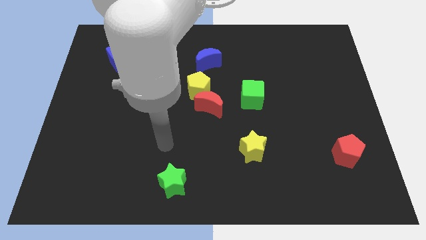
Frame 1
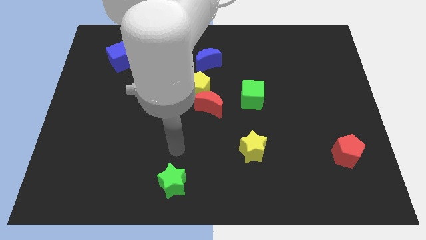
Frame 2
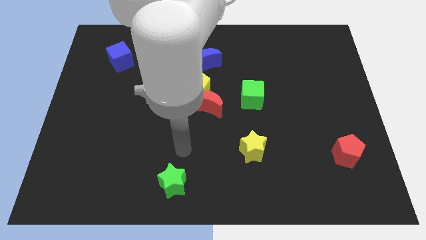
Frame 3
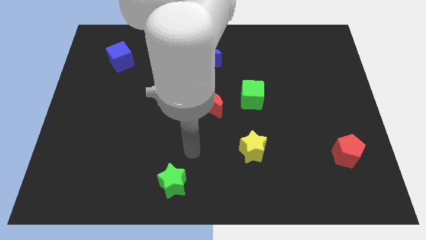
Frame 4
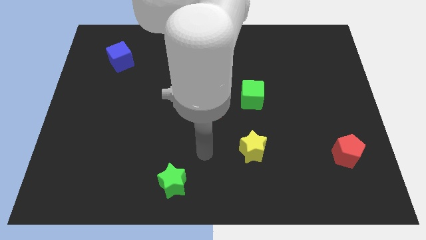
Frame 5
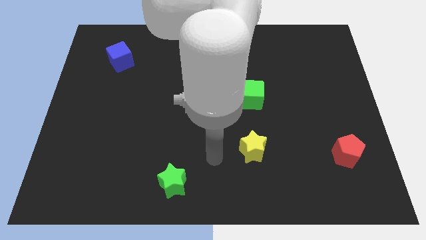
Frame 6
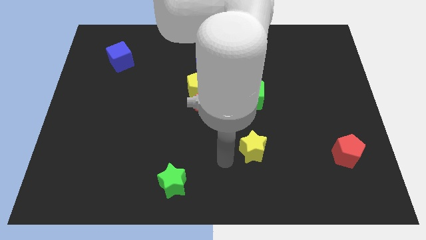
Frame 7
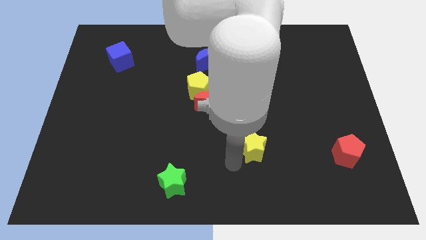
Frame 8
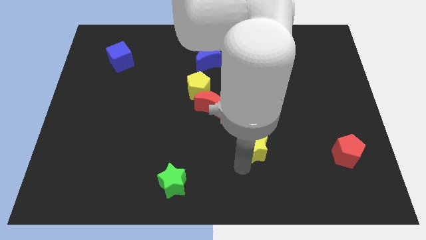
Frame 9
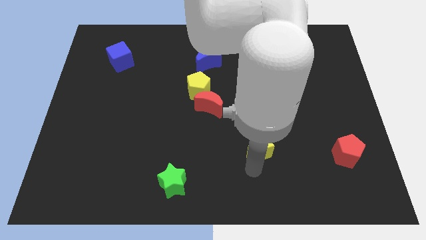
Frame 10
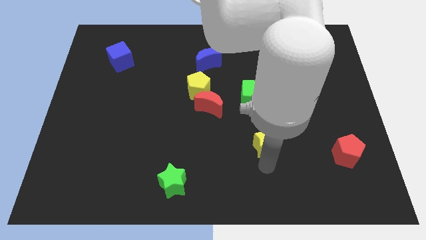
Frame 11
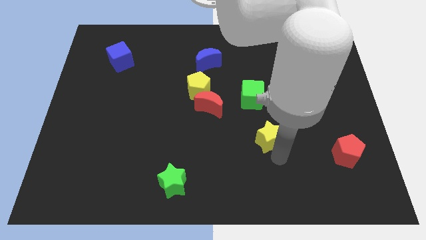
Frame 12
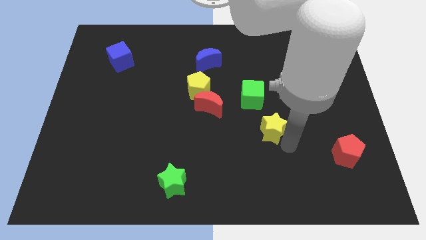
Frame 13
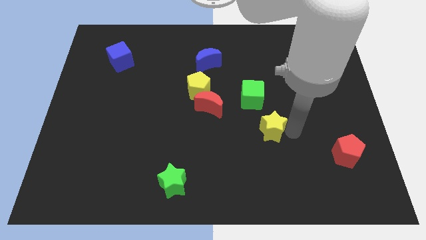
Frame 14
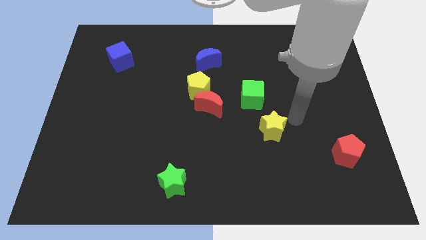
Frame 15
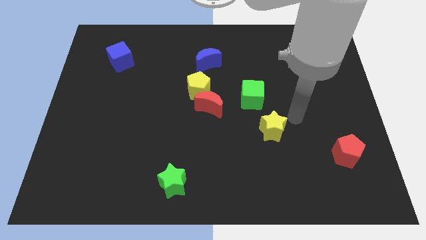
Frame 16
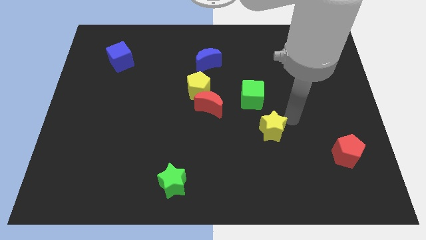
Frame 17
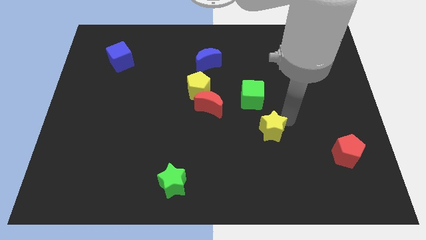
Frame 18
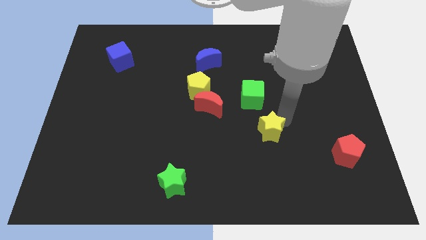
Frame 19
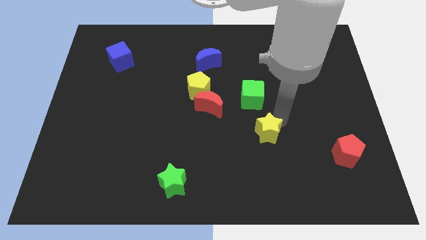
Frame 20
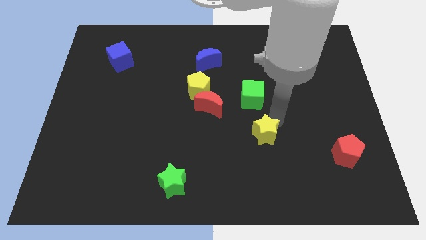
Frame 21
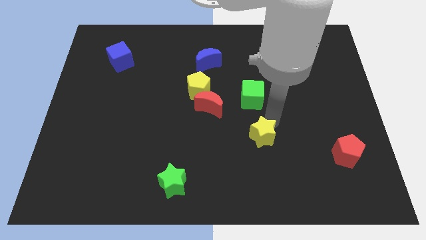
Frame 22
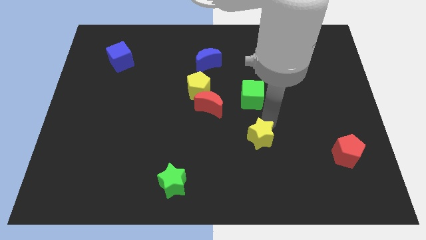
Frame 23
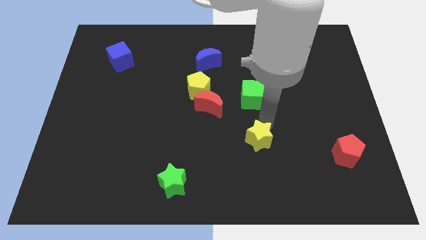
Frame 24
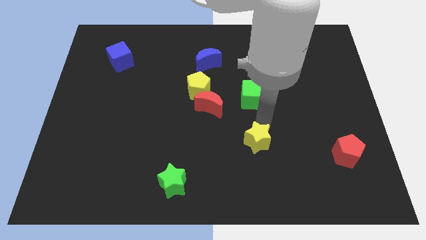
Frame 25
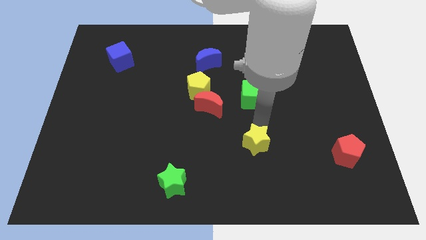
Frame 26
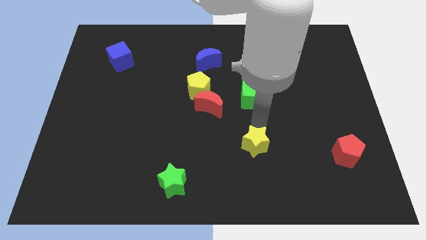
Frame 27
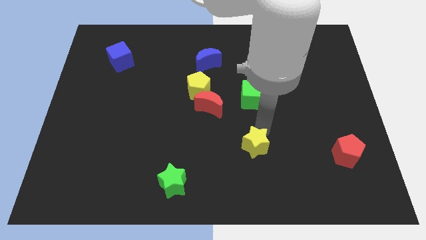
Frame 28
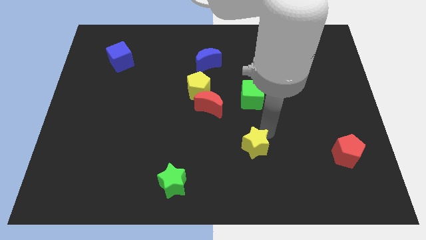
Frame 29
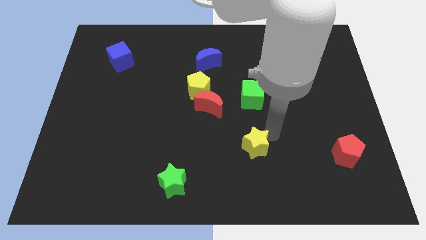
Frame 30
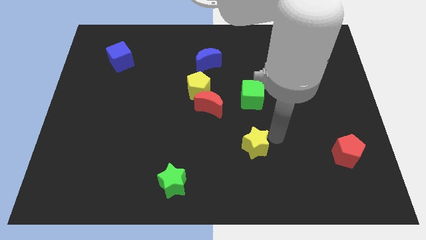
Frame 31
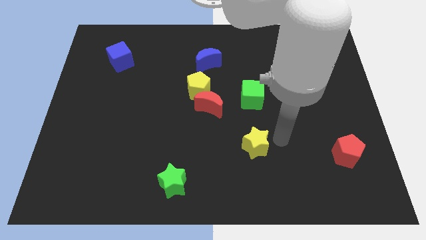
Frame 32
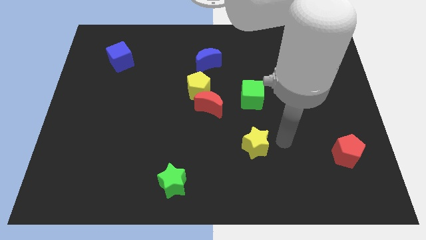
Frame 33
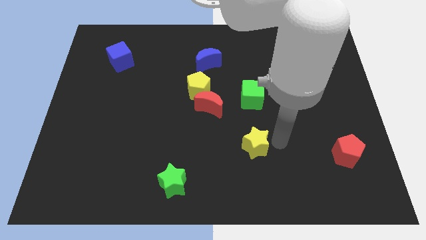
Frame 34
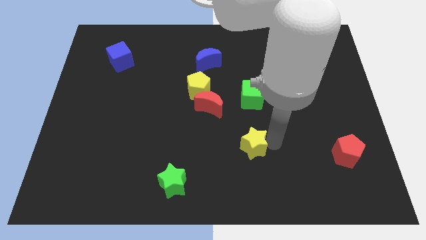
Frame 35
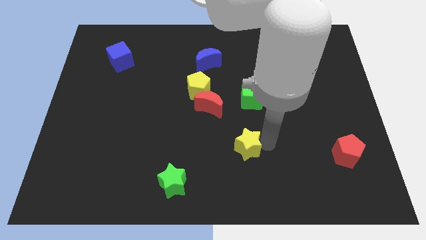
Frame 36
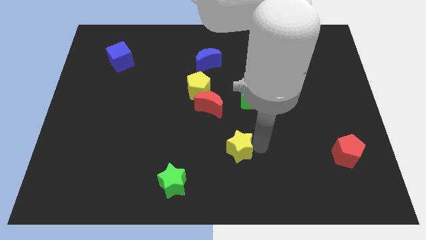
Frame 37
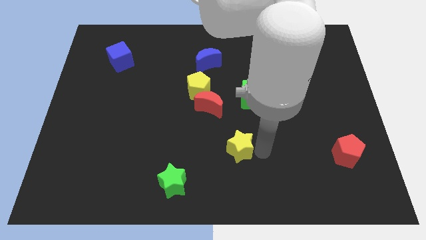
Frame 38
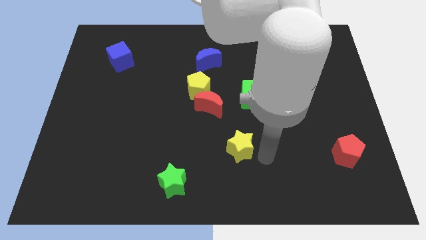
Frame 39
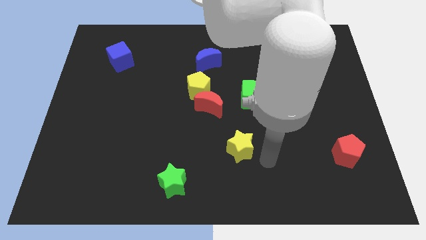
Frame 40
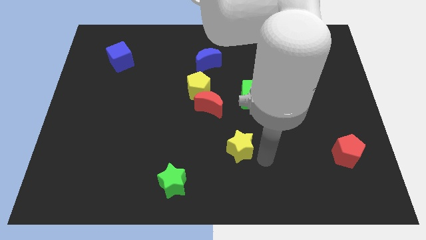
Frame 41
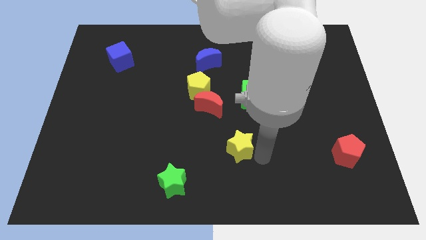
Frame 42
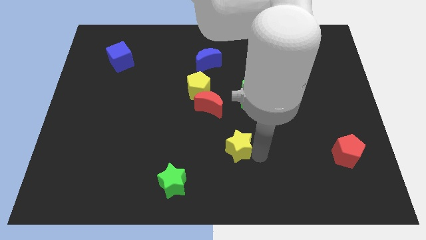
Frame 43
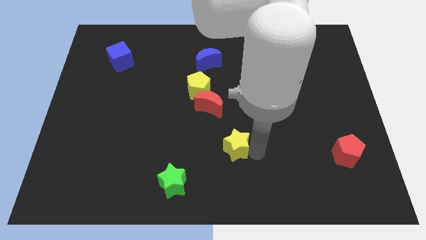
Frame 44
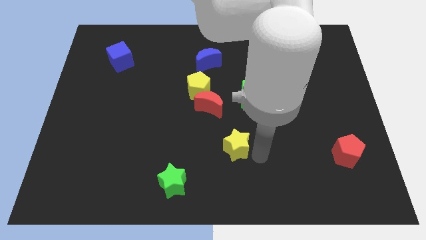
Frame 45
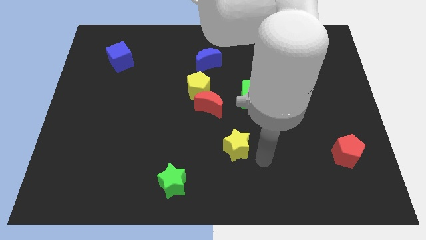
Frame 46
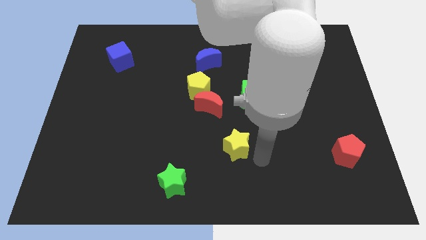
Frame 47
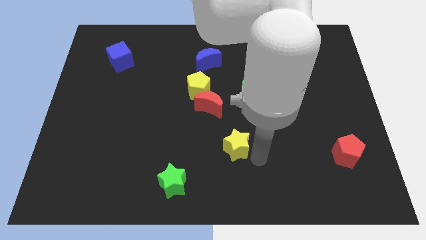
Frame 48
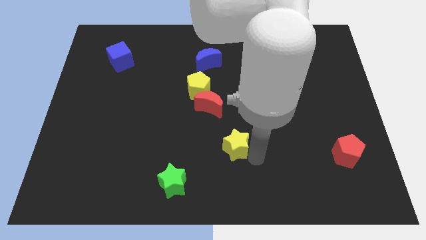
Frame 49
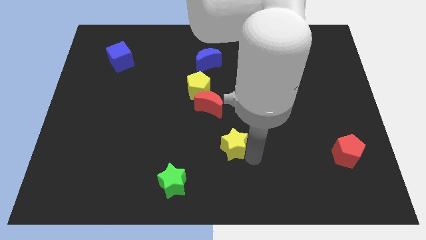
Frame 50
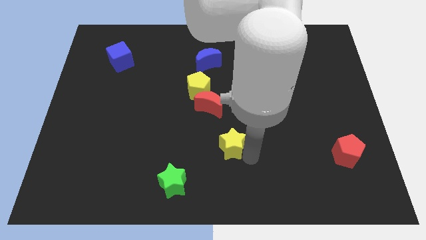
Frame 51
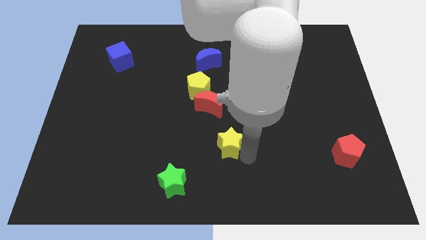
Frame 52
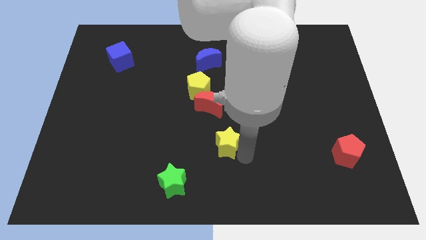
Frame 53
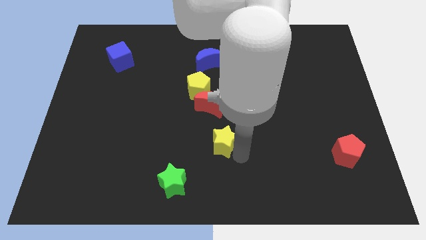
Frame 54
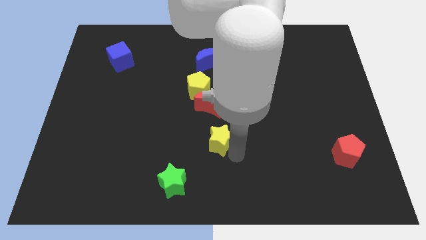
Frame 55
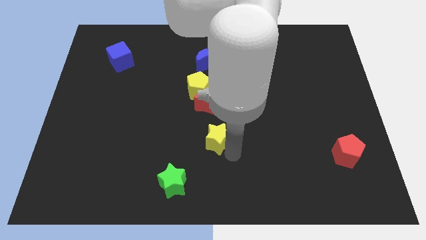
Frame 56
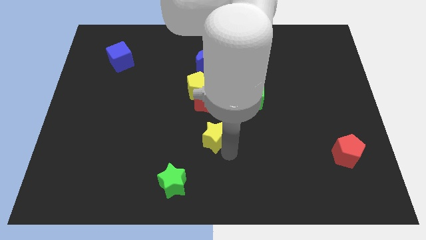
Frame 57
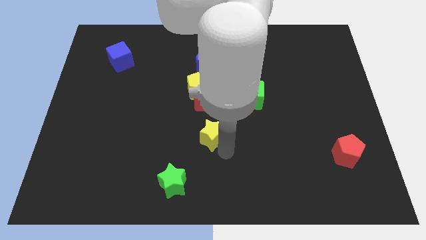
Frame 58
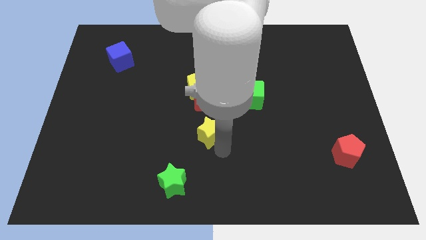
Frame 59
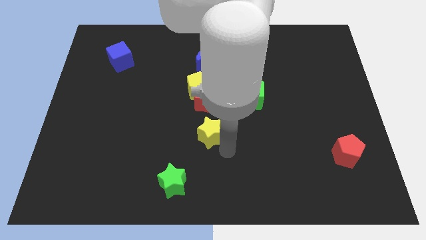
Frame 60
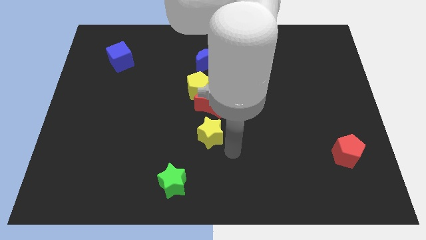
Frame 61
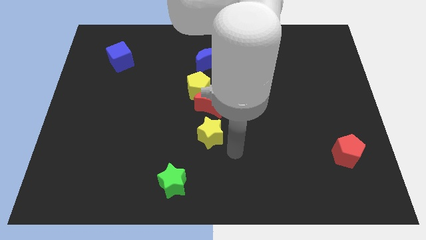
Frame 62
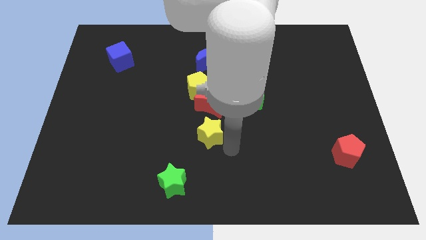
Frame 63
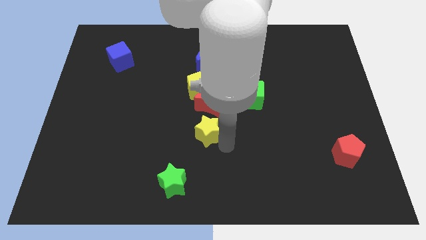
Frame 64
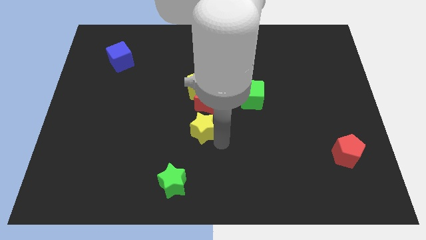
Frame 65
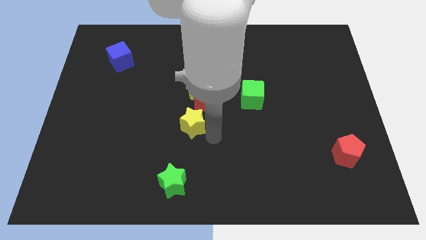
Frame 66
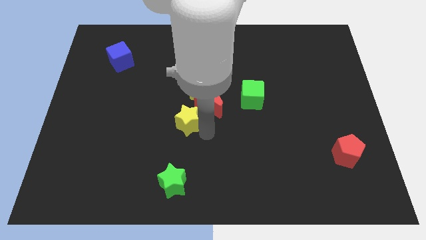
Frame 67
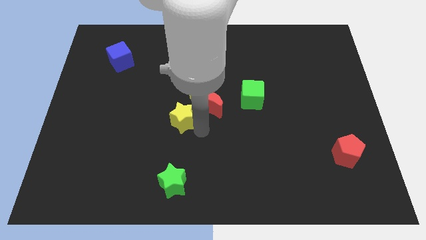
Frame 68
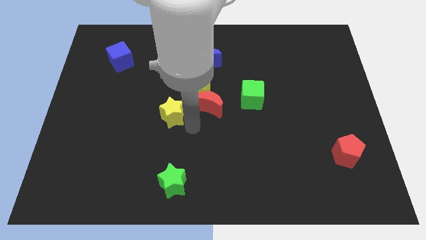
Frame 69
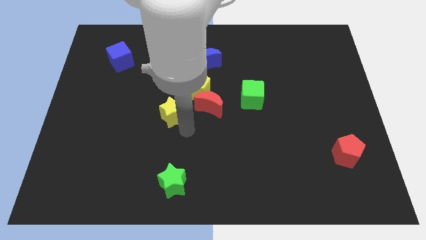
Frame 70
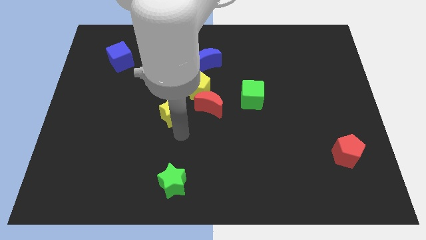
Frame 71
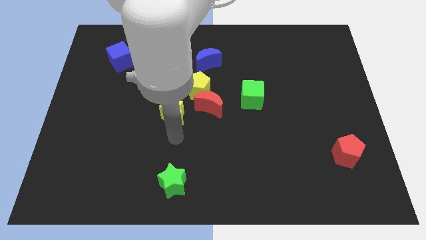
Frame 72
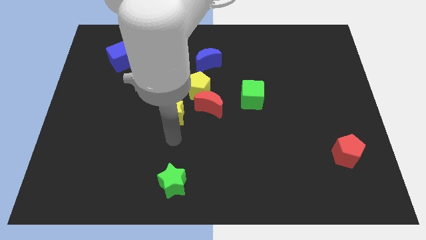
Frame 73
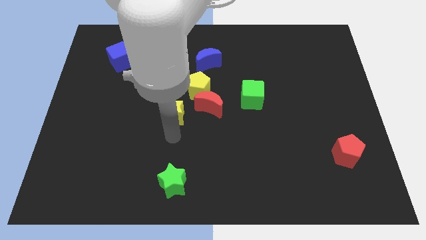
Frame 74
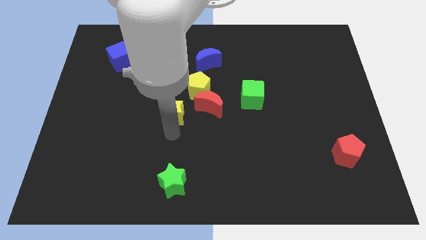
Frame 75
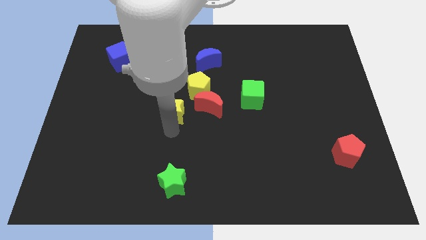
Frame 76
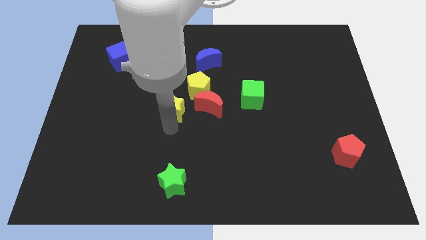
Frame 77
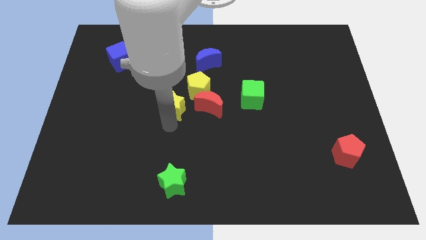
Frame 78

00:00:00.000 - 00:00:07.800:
slide the yellow star up and then left

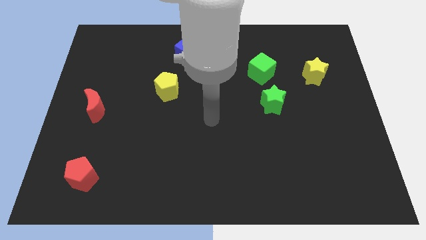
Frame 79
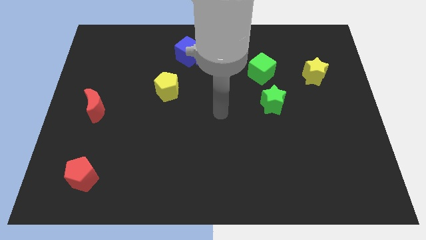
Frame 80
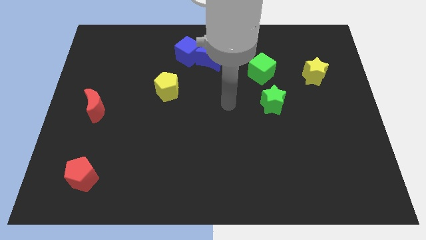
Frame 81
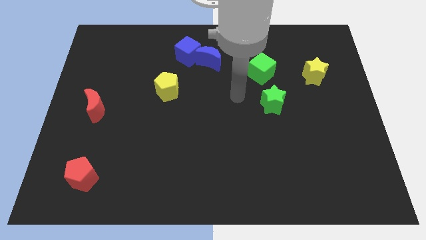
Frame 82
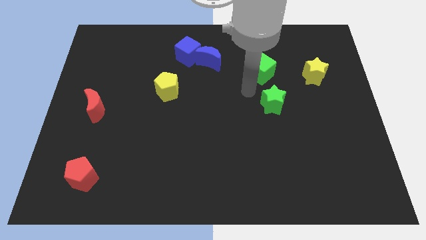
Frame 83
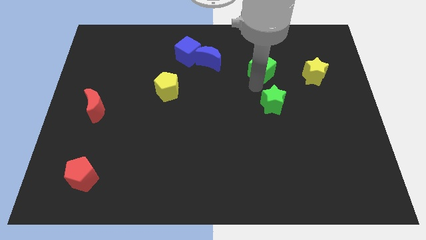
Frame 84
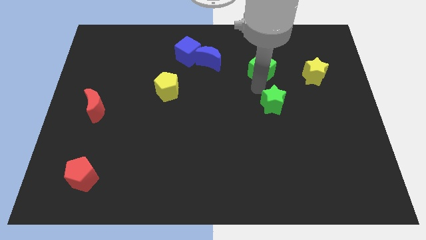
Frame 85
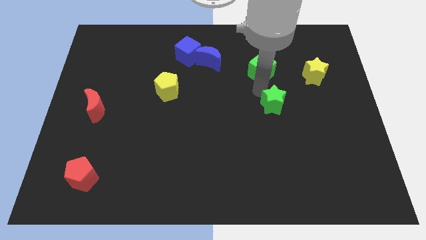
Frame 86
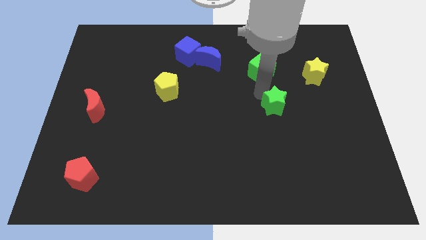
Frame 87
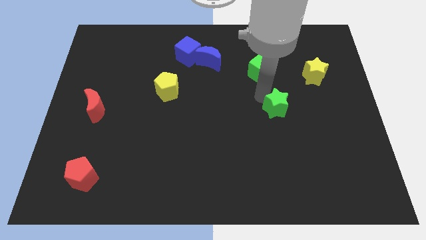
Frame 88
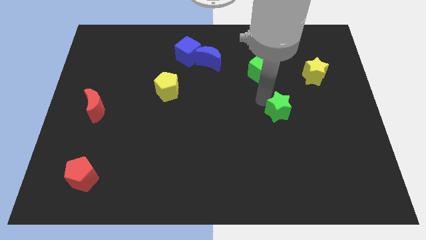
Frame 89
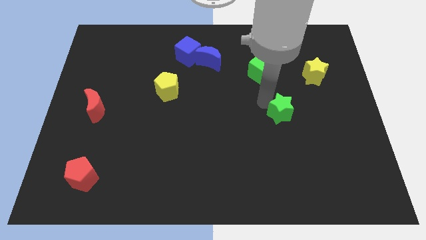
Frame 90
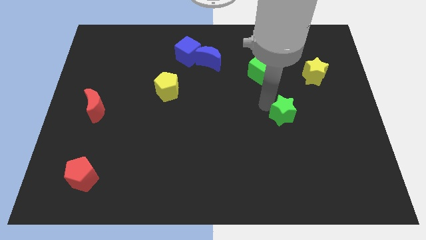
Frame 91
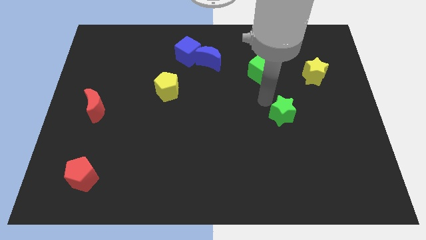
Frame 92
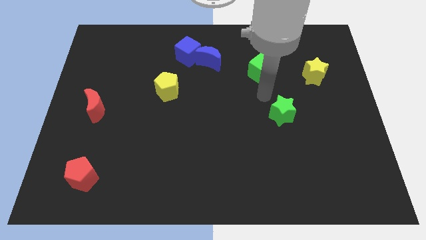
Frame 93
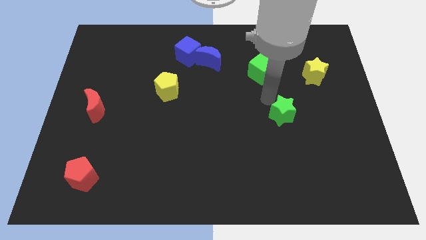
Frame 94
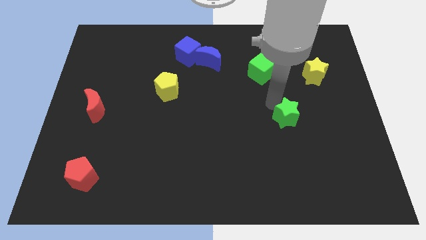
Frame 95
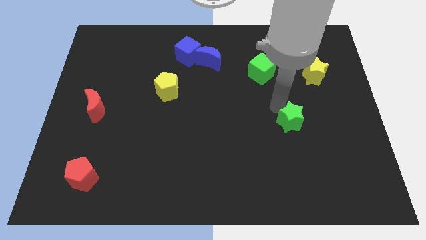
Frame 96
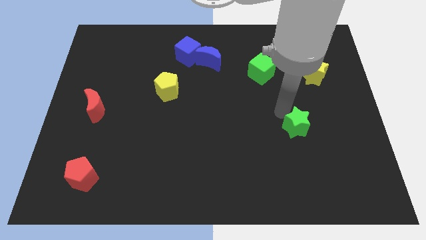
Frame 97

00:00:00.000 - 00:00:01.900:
slide the green star downwards and right a bit
